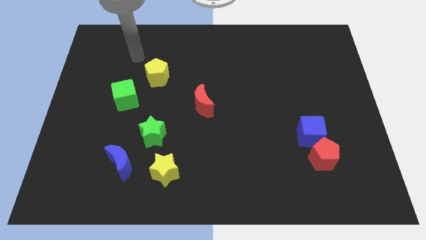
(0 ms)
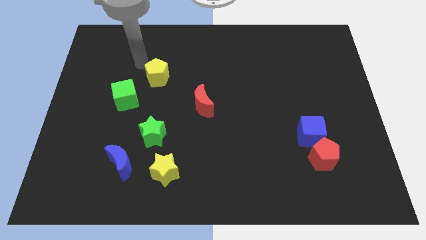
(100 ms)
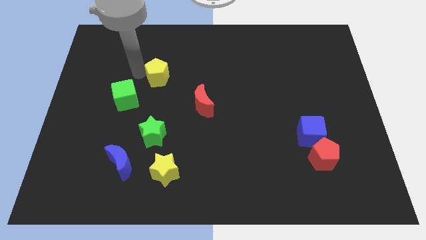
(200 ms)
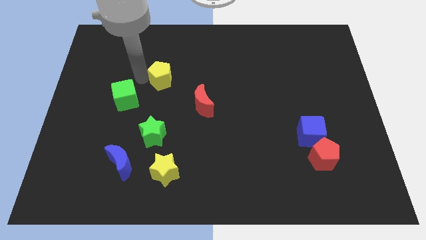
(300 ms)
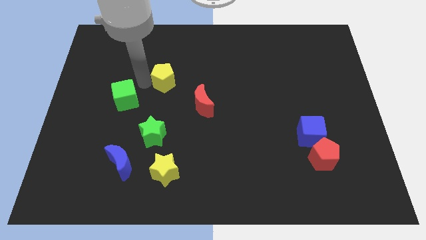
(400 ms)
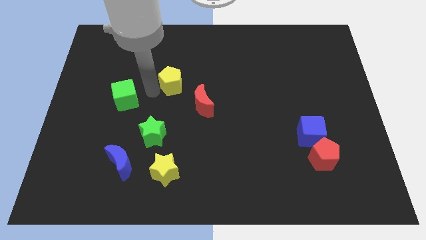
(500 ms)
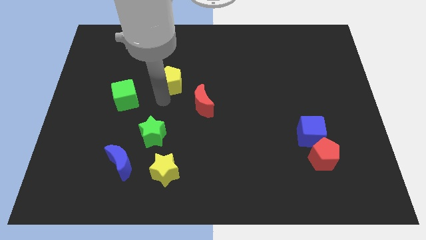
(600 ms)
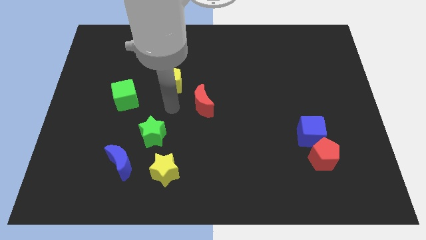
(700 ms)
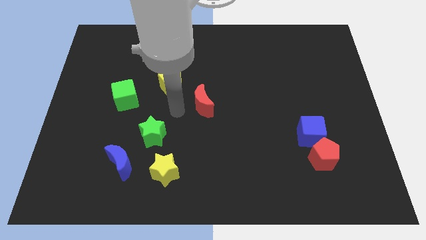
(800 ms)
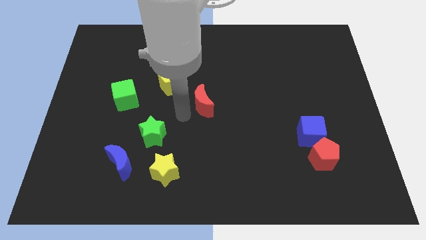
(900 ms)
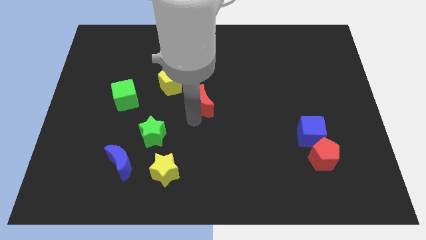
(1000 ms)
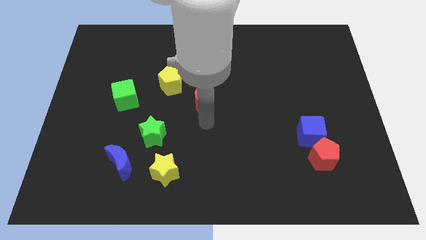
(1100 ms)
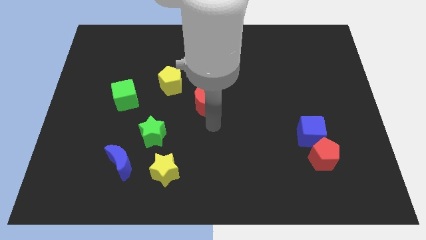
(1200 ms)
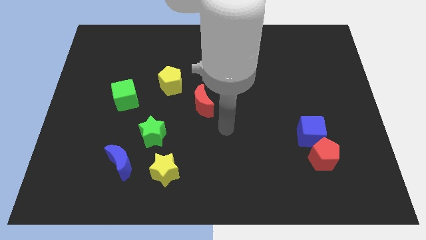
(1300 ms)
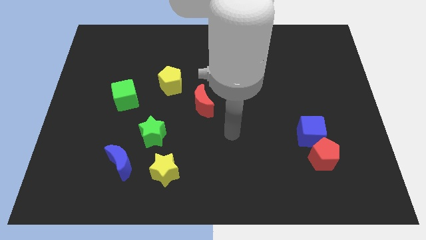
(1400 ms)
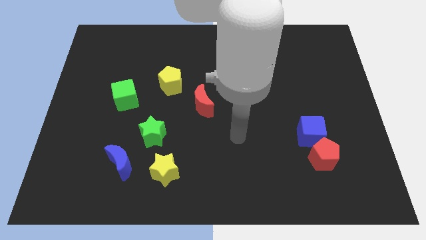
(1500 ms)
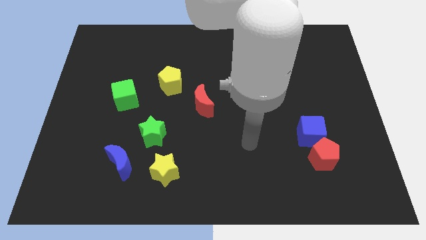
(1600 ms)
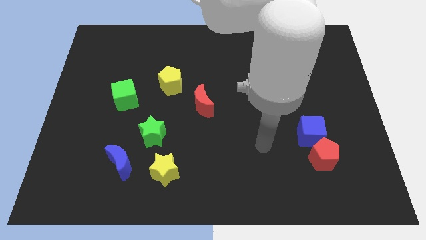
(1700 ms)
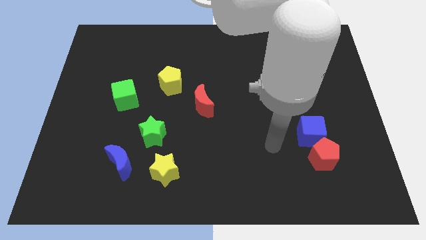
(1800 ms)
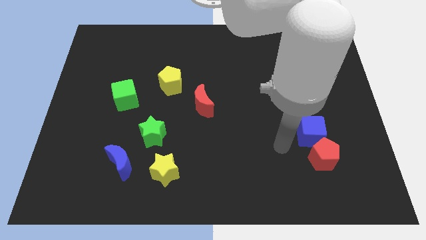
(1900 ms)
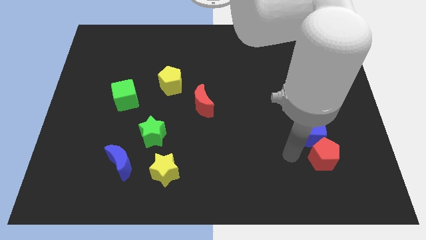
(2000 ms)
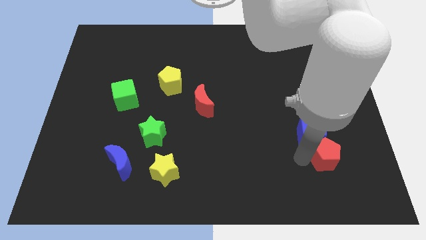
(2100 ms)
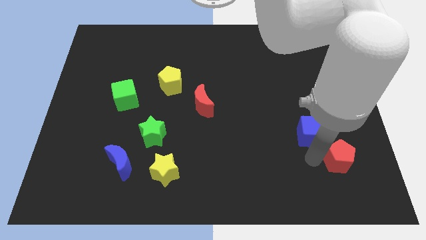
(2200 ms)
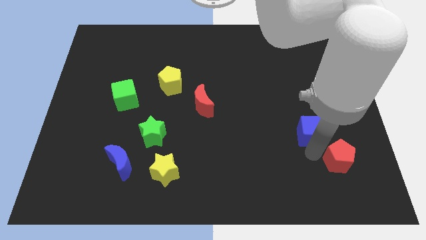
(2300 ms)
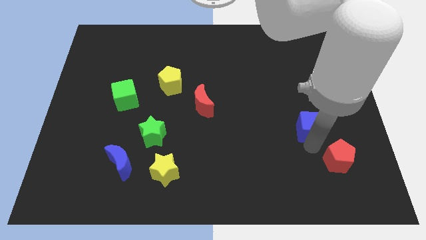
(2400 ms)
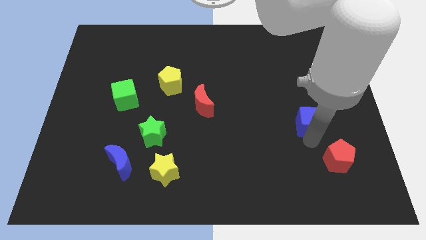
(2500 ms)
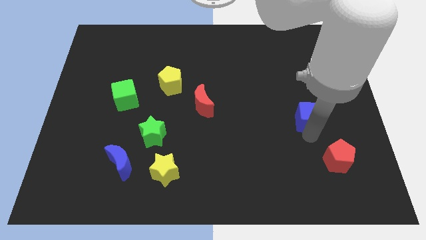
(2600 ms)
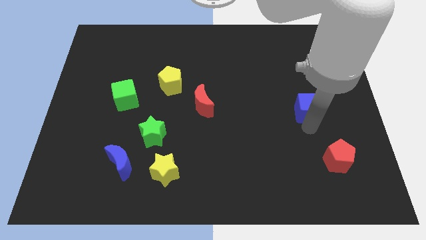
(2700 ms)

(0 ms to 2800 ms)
move the blue cube slightly up

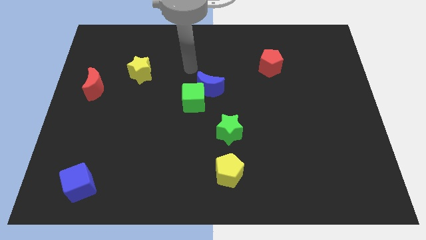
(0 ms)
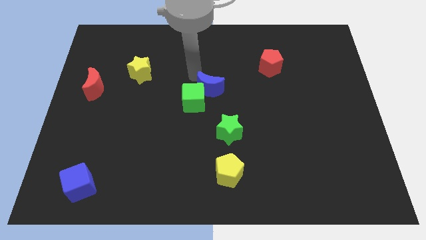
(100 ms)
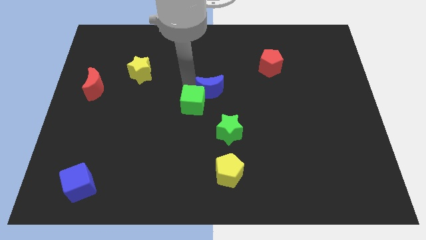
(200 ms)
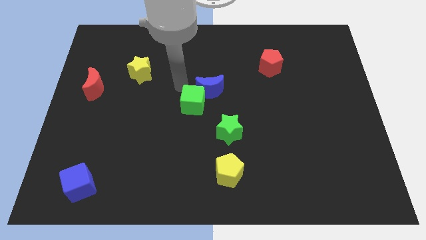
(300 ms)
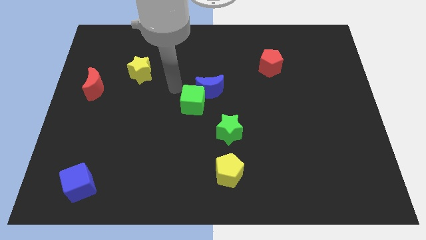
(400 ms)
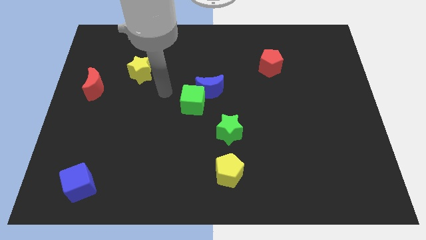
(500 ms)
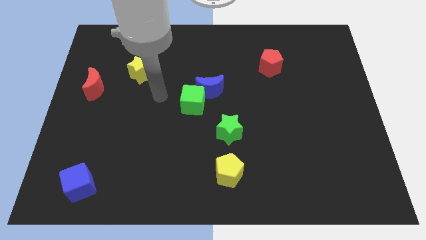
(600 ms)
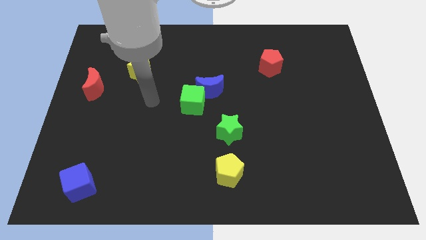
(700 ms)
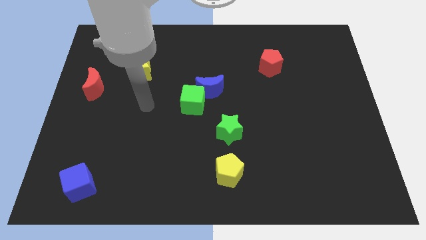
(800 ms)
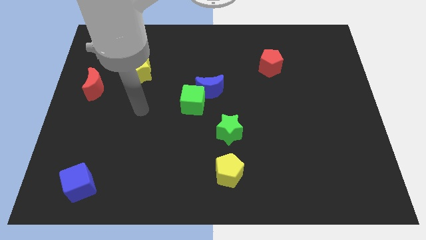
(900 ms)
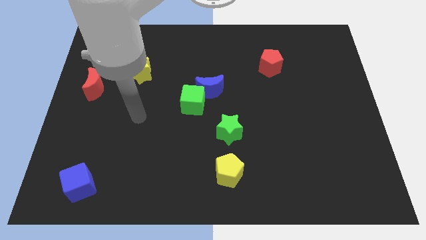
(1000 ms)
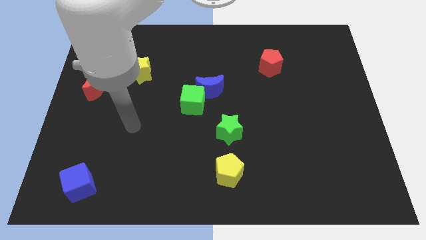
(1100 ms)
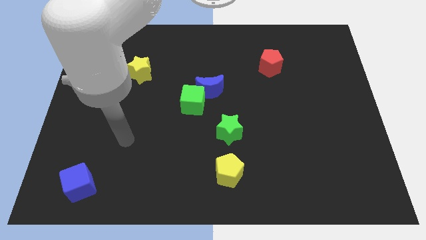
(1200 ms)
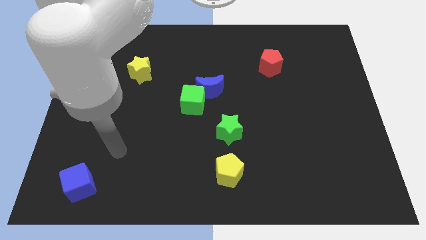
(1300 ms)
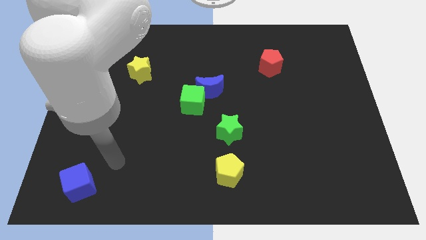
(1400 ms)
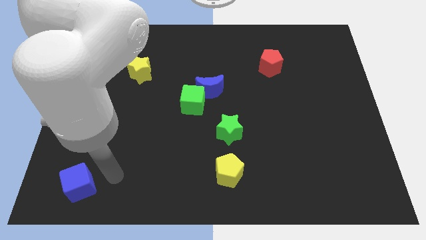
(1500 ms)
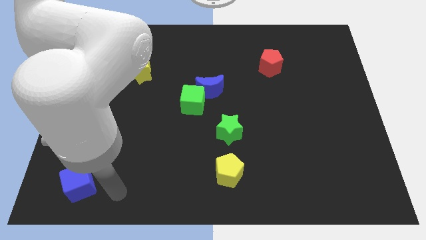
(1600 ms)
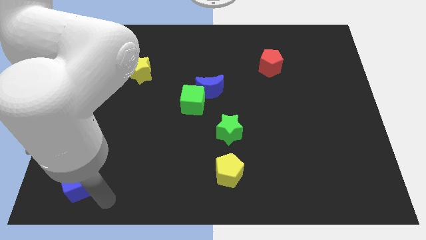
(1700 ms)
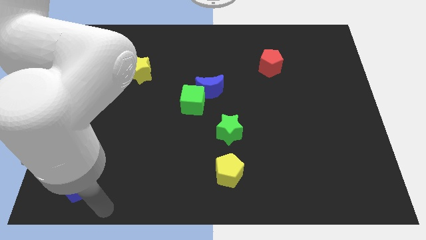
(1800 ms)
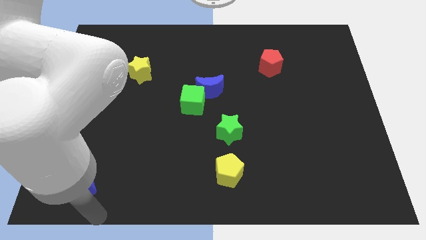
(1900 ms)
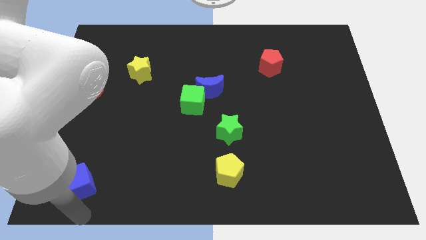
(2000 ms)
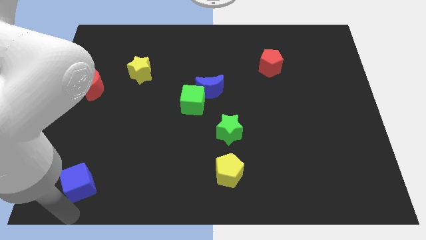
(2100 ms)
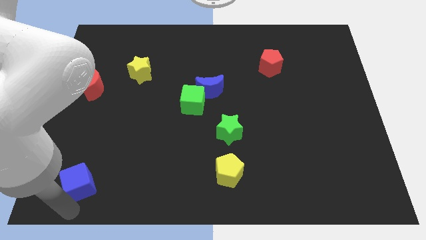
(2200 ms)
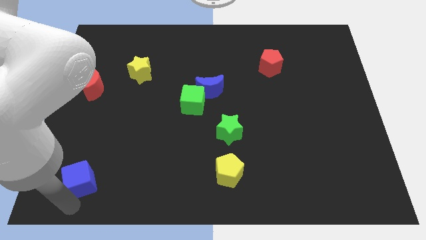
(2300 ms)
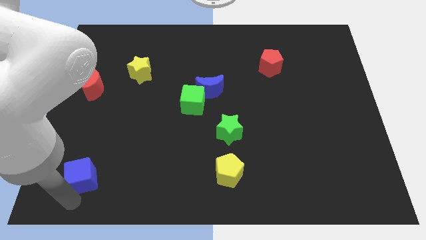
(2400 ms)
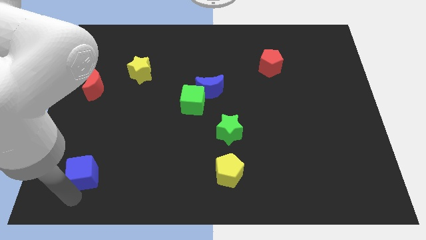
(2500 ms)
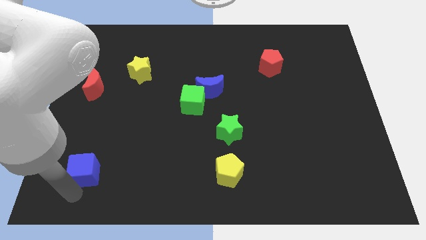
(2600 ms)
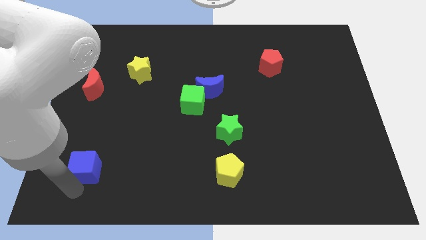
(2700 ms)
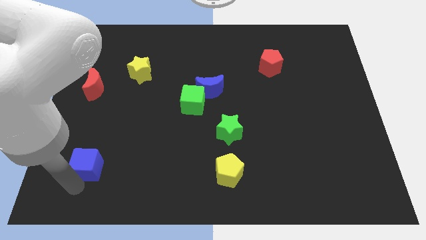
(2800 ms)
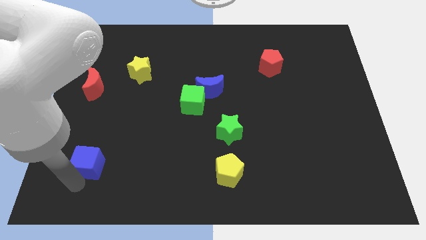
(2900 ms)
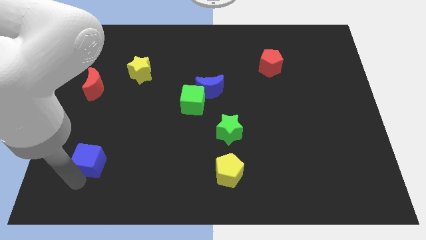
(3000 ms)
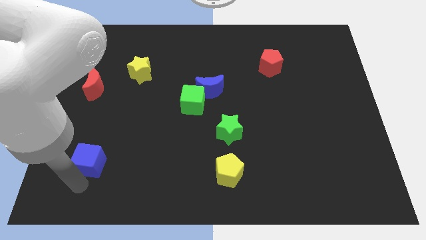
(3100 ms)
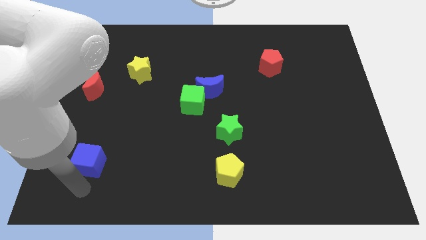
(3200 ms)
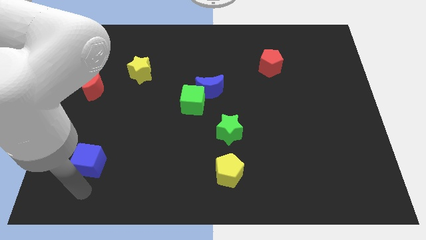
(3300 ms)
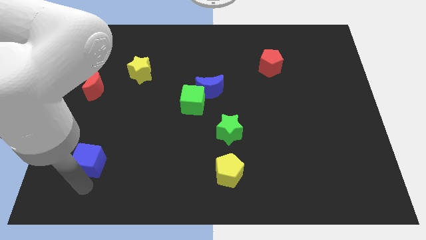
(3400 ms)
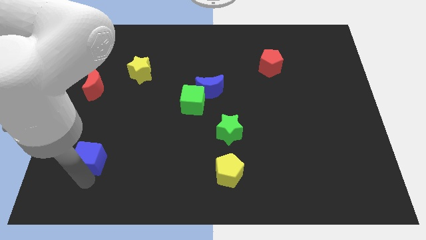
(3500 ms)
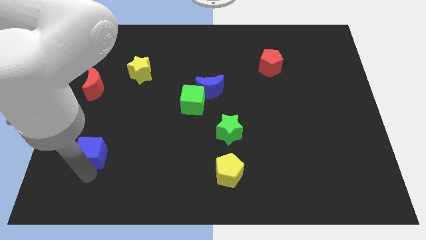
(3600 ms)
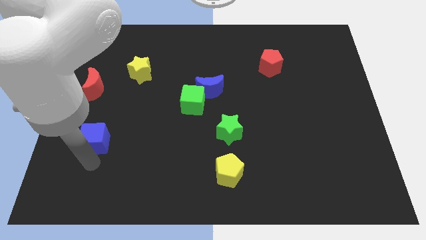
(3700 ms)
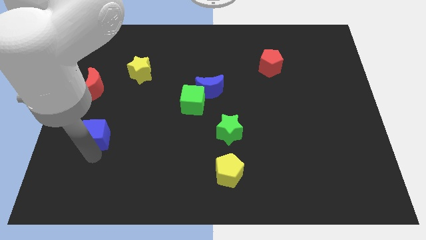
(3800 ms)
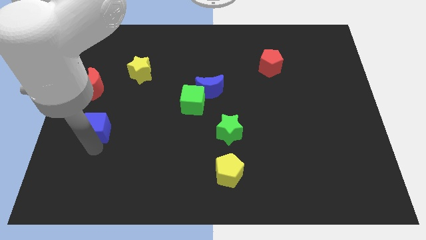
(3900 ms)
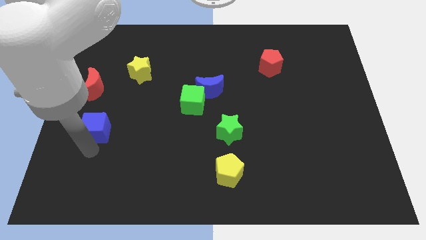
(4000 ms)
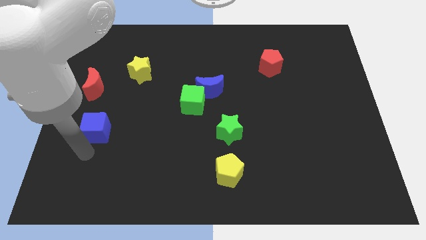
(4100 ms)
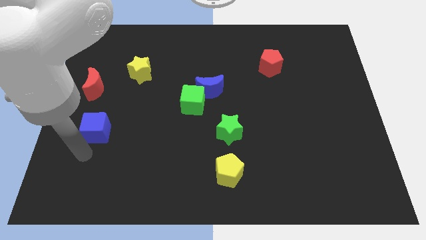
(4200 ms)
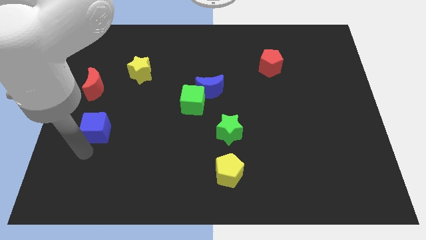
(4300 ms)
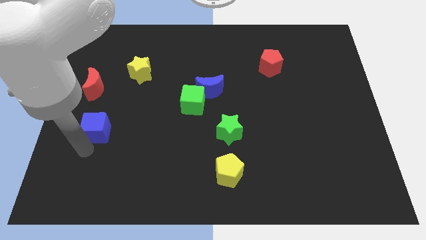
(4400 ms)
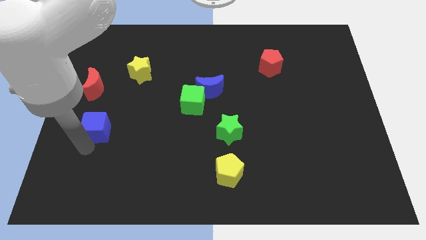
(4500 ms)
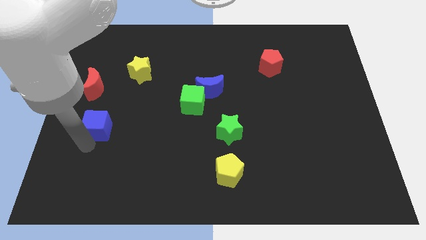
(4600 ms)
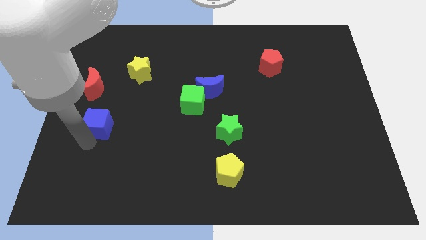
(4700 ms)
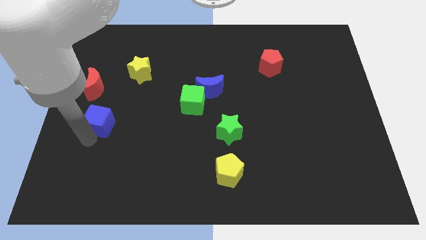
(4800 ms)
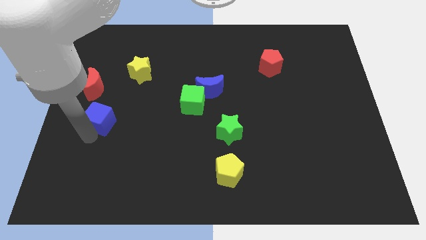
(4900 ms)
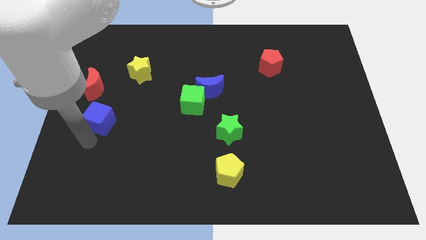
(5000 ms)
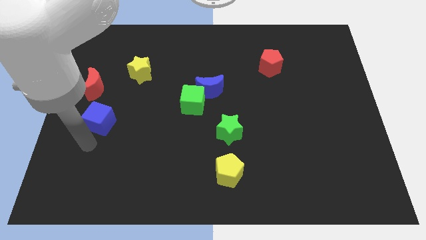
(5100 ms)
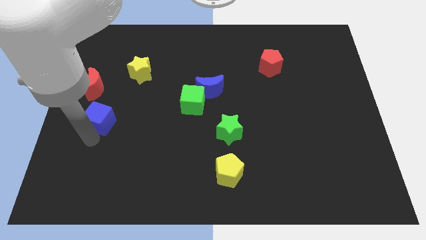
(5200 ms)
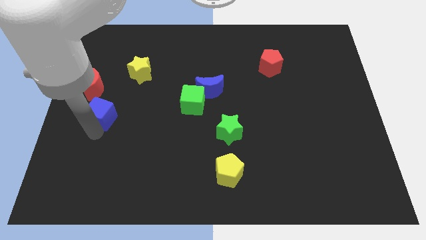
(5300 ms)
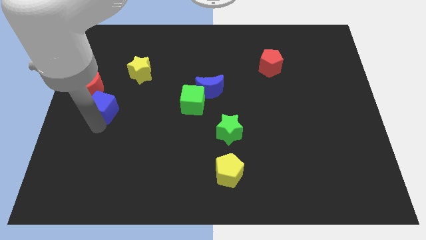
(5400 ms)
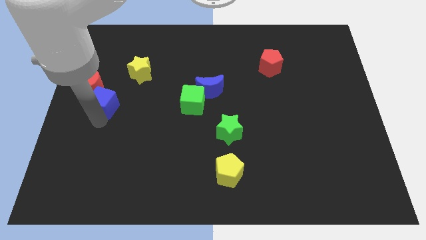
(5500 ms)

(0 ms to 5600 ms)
slide the blue cube upwards
